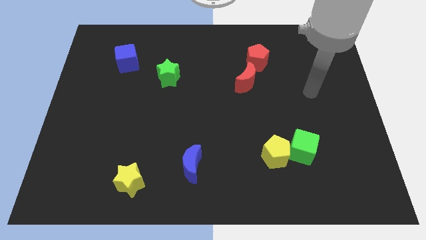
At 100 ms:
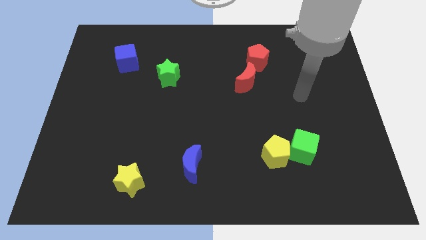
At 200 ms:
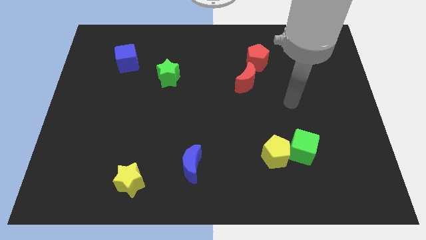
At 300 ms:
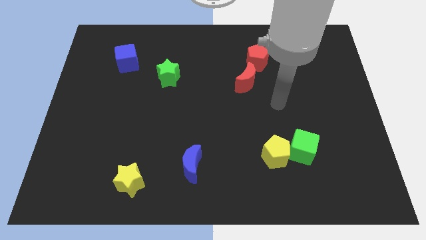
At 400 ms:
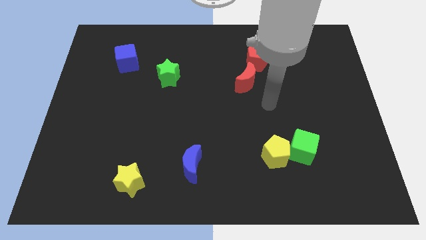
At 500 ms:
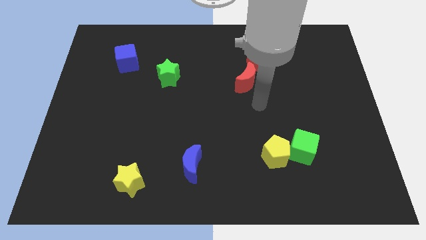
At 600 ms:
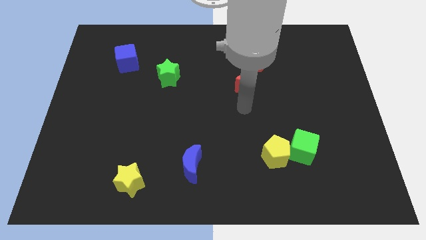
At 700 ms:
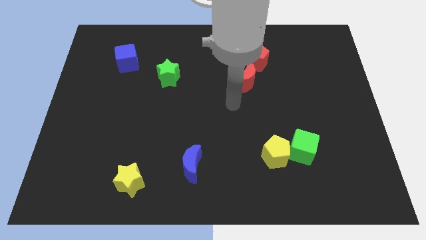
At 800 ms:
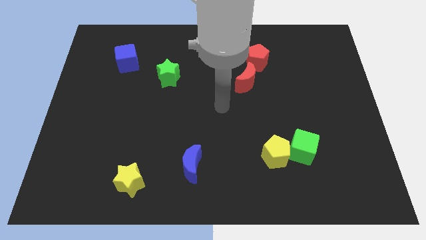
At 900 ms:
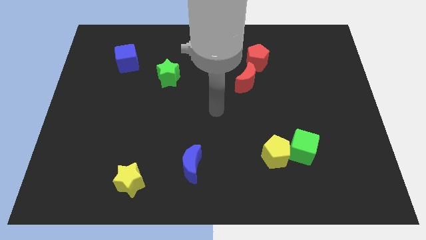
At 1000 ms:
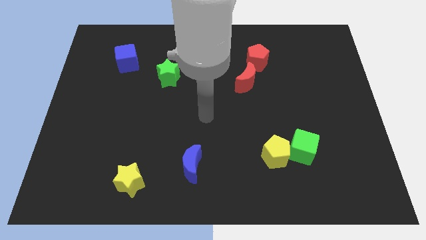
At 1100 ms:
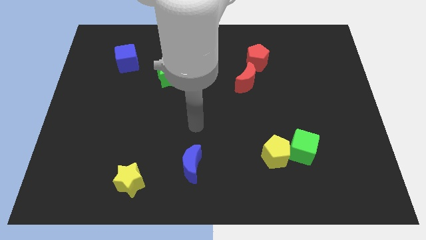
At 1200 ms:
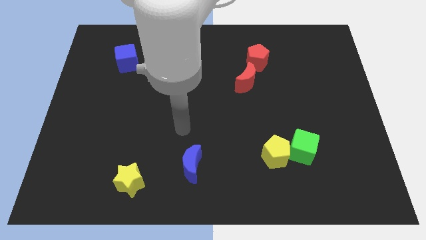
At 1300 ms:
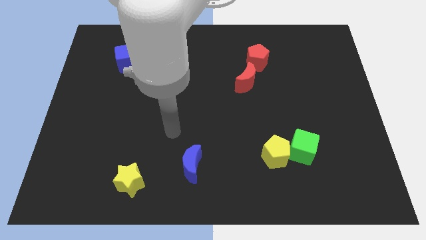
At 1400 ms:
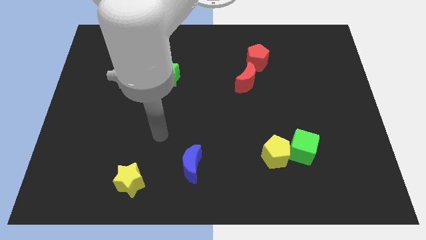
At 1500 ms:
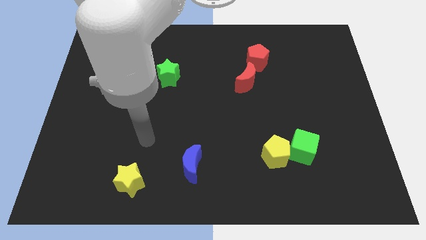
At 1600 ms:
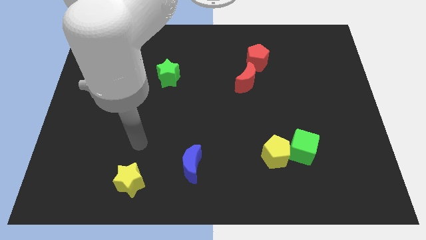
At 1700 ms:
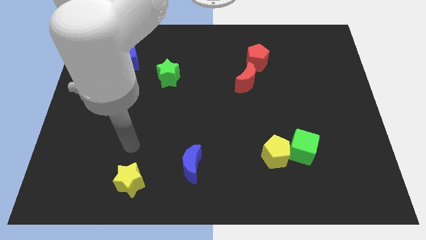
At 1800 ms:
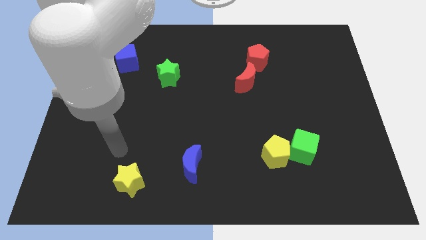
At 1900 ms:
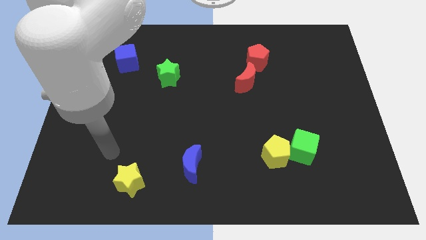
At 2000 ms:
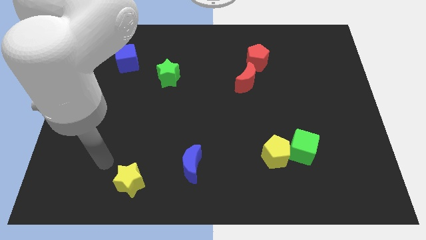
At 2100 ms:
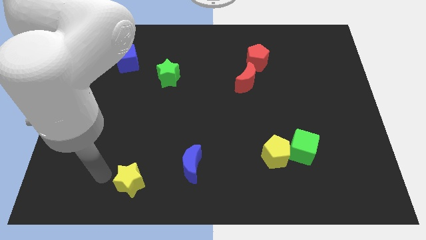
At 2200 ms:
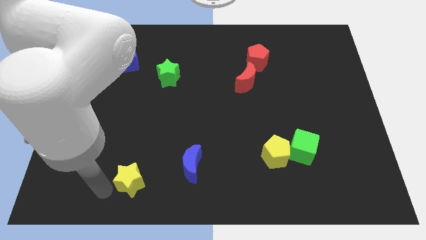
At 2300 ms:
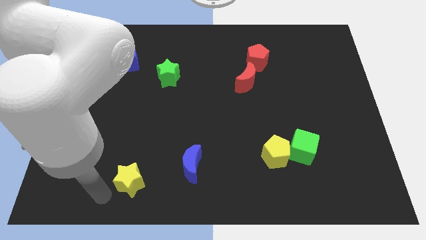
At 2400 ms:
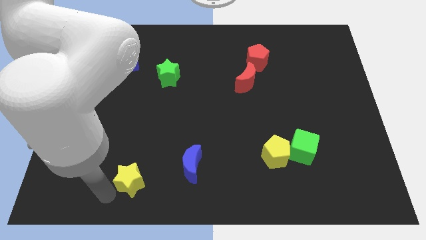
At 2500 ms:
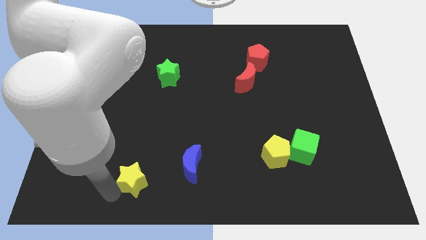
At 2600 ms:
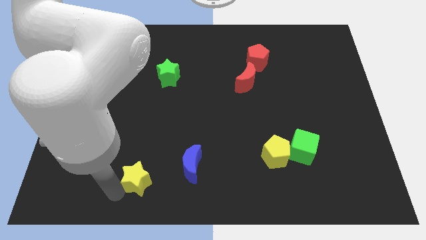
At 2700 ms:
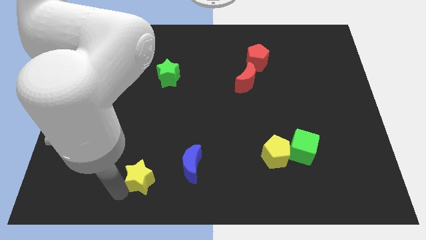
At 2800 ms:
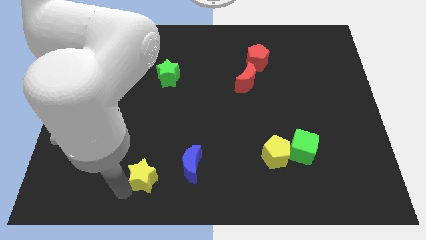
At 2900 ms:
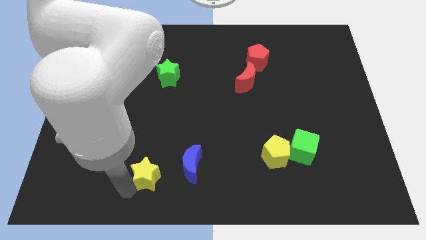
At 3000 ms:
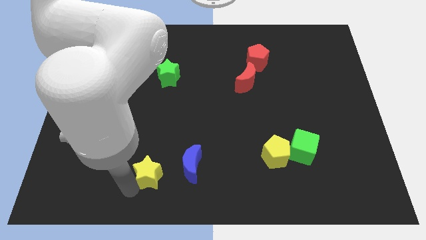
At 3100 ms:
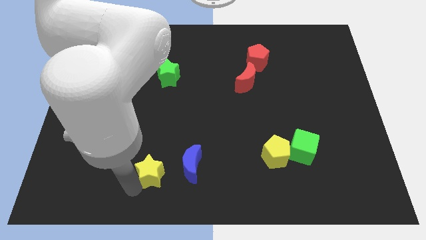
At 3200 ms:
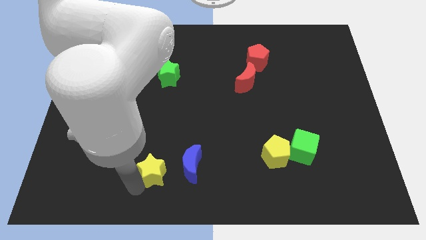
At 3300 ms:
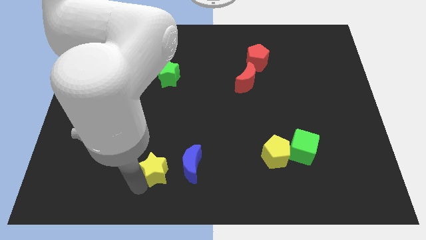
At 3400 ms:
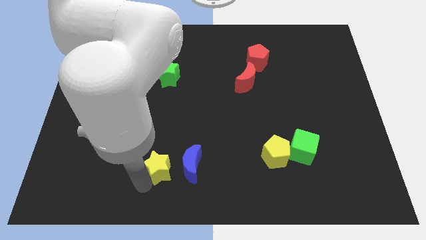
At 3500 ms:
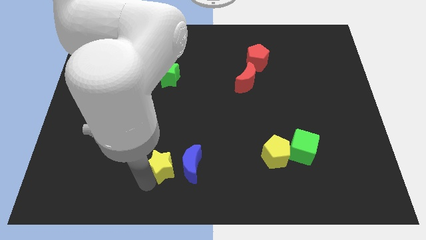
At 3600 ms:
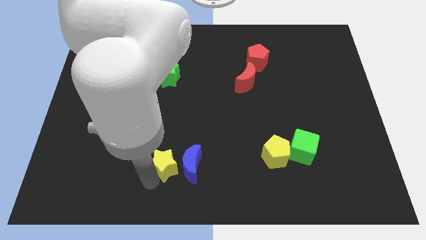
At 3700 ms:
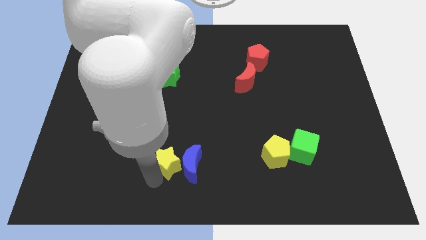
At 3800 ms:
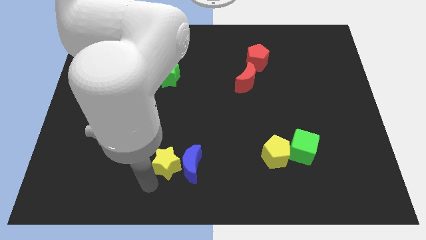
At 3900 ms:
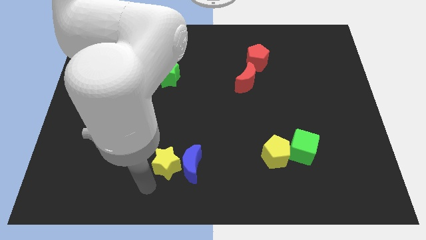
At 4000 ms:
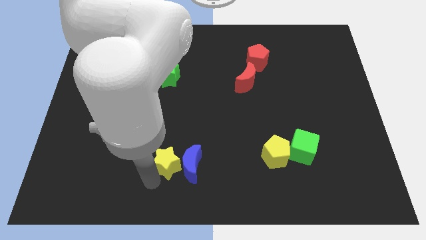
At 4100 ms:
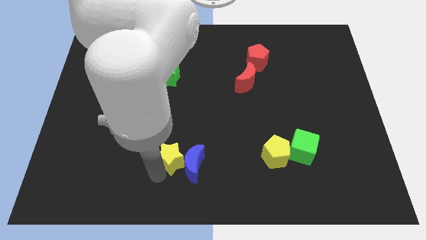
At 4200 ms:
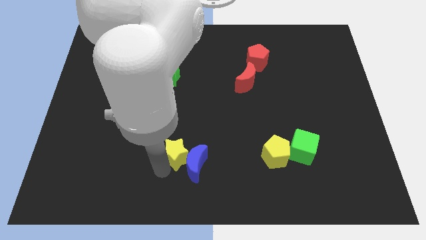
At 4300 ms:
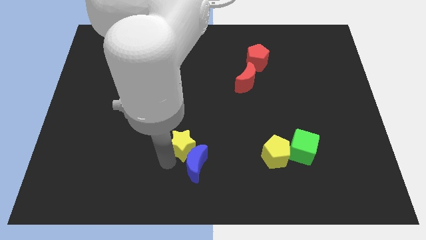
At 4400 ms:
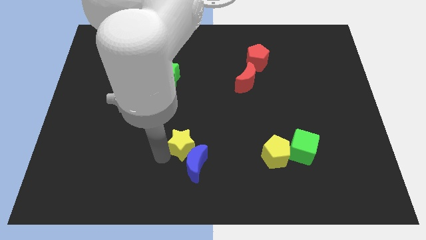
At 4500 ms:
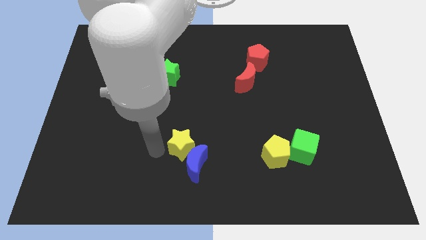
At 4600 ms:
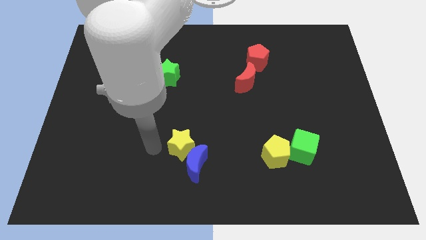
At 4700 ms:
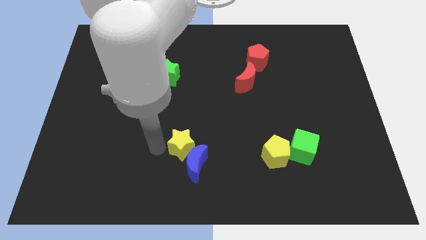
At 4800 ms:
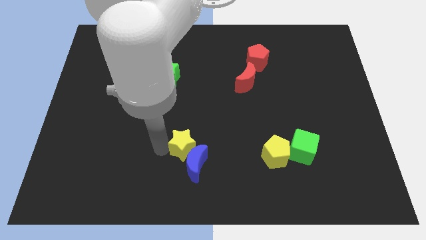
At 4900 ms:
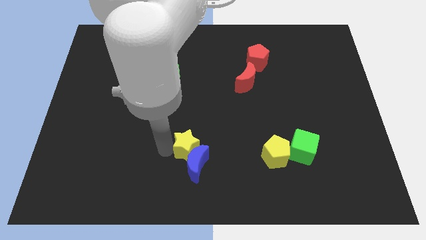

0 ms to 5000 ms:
put the yellow star to the top right side of the blue moon

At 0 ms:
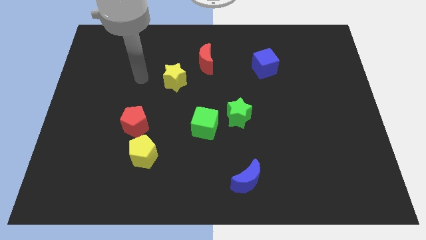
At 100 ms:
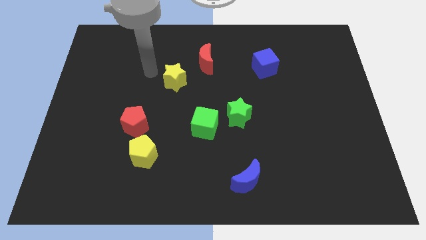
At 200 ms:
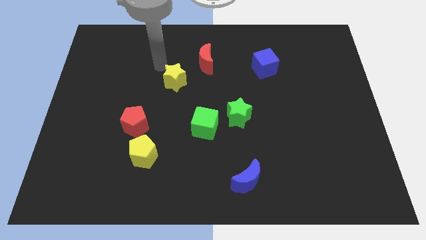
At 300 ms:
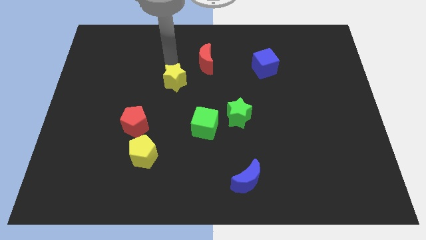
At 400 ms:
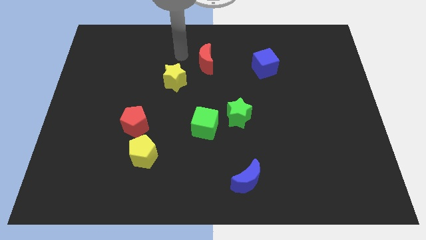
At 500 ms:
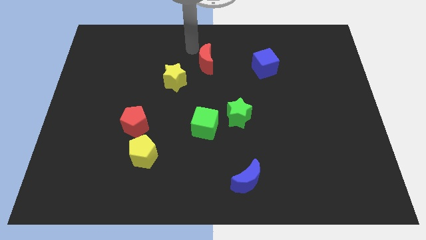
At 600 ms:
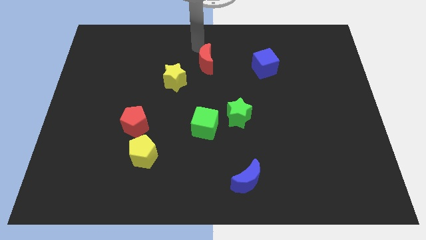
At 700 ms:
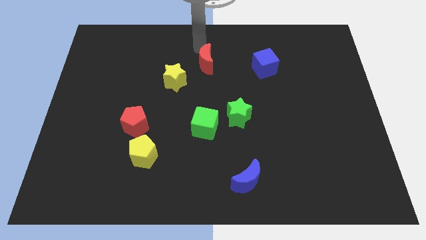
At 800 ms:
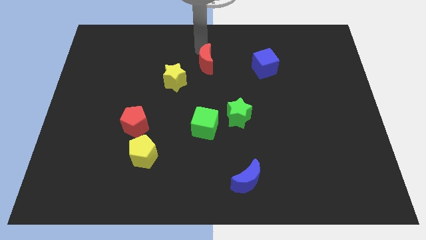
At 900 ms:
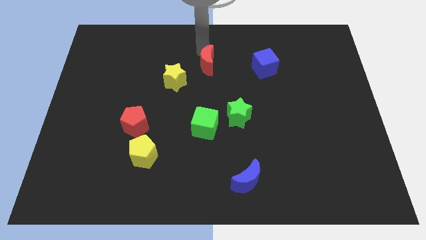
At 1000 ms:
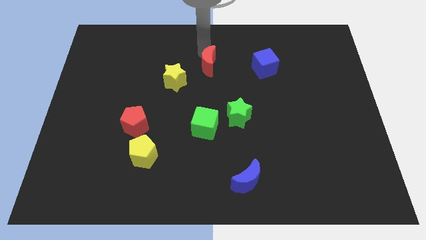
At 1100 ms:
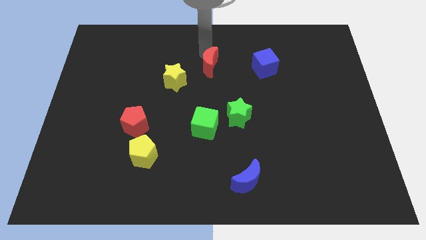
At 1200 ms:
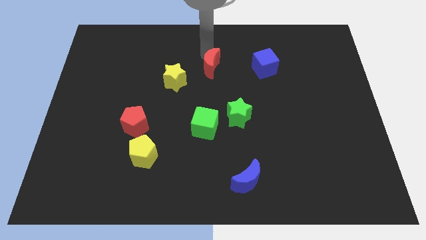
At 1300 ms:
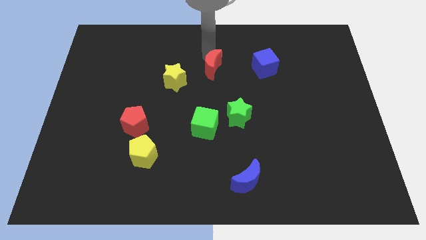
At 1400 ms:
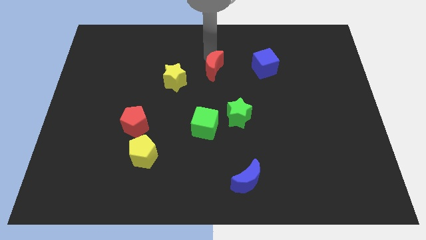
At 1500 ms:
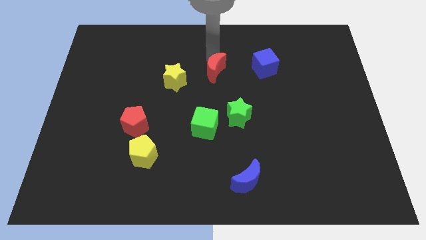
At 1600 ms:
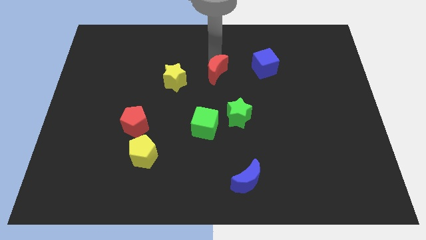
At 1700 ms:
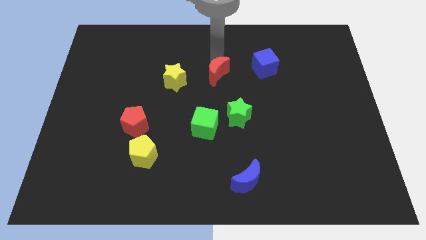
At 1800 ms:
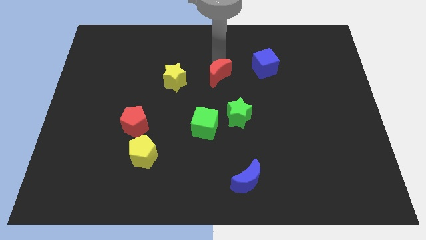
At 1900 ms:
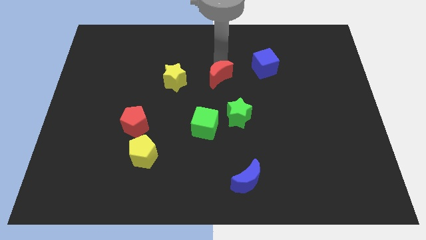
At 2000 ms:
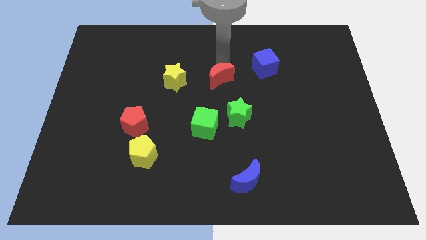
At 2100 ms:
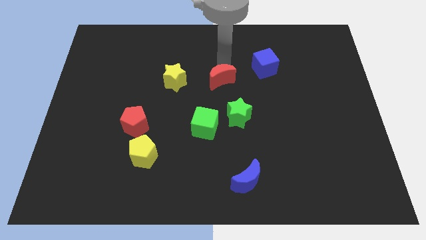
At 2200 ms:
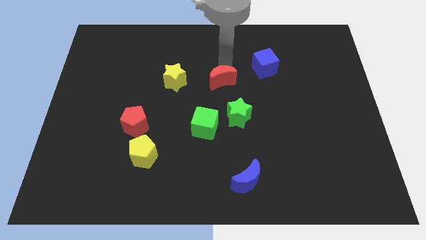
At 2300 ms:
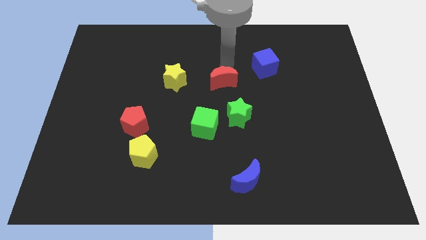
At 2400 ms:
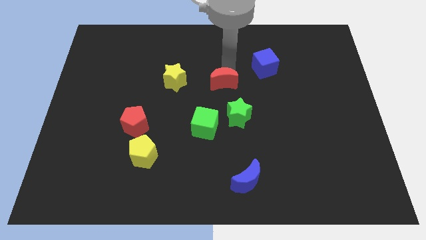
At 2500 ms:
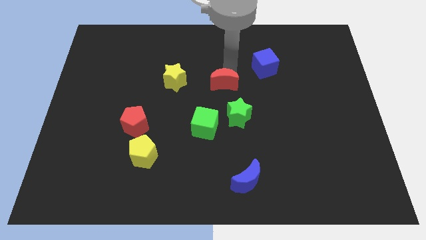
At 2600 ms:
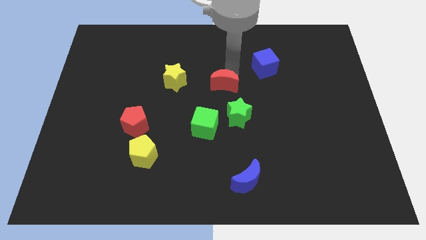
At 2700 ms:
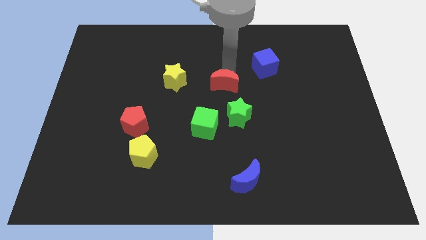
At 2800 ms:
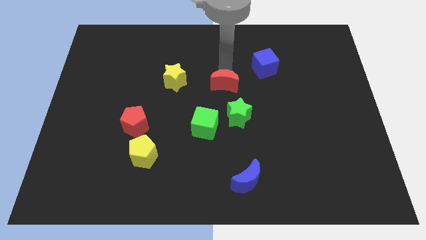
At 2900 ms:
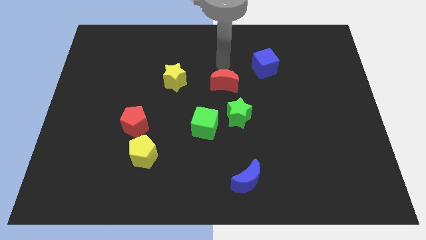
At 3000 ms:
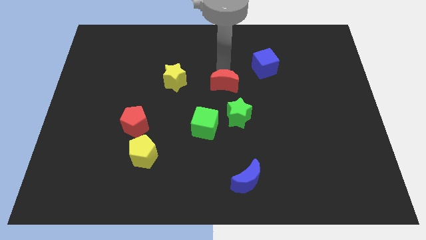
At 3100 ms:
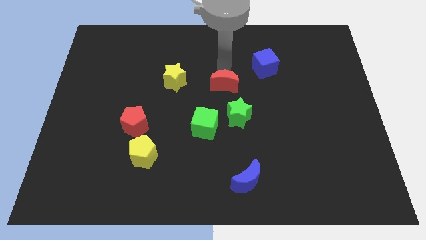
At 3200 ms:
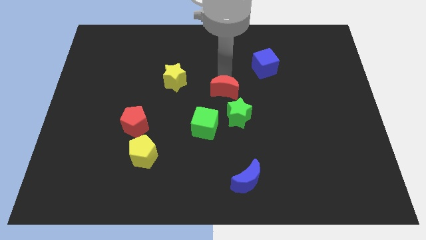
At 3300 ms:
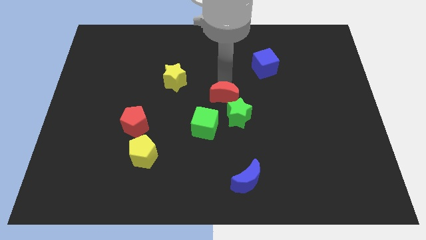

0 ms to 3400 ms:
move the red moon to the top right of the green cube
